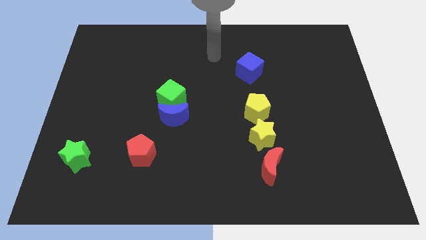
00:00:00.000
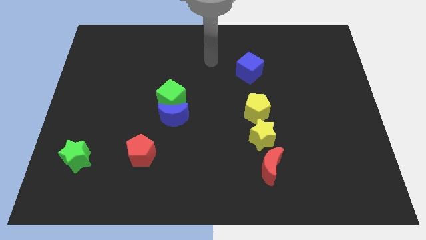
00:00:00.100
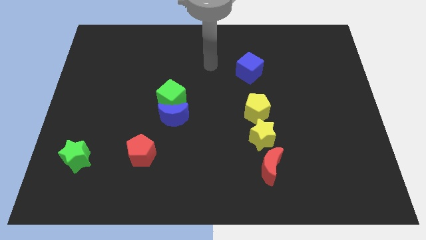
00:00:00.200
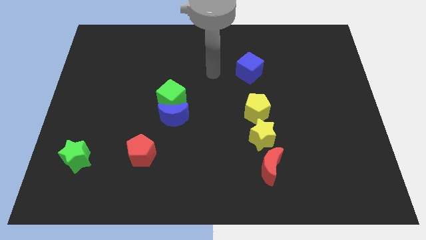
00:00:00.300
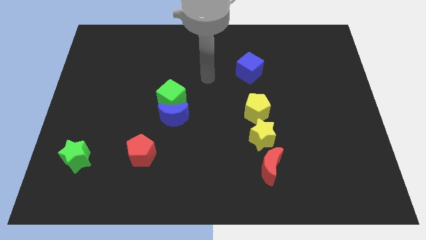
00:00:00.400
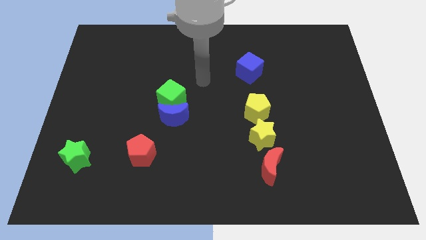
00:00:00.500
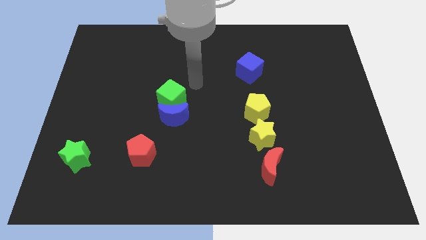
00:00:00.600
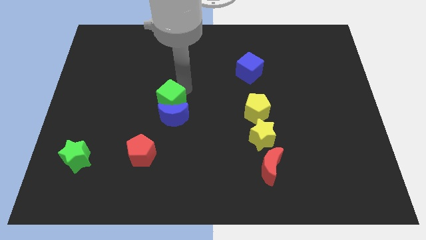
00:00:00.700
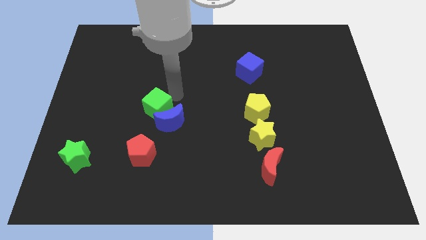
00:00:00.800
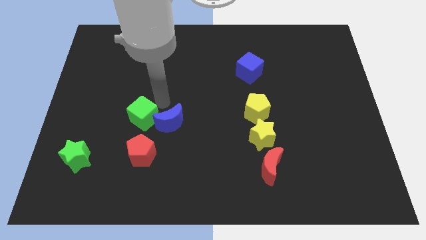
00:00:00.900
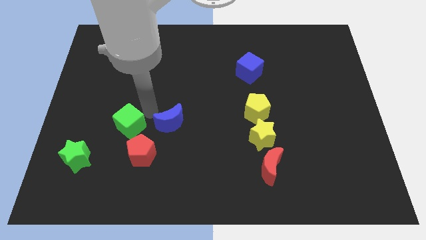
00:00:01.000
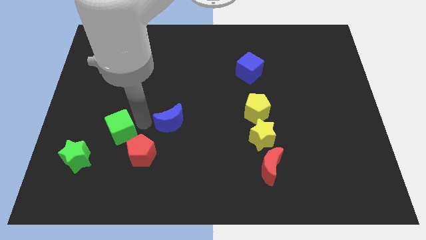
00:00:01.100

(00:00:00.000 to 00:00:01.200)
move the blue moon away from the green cube
